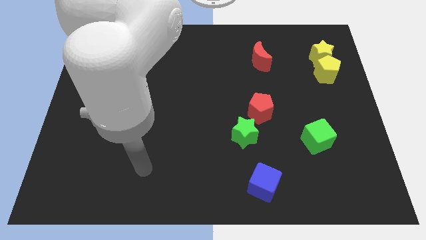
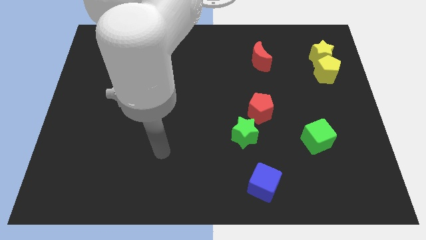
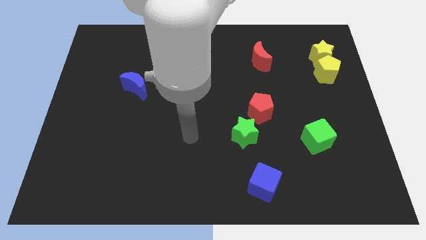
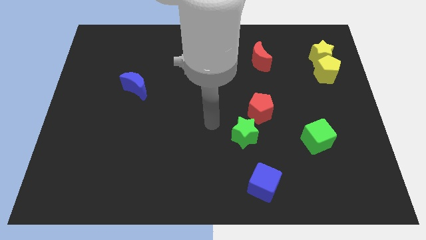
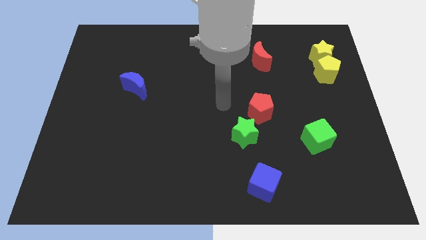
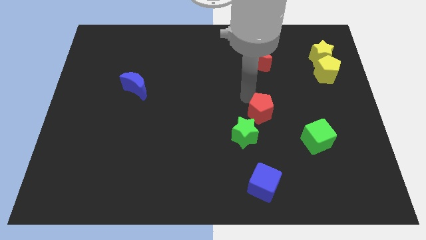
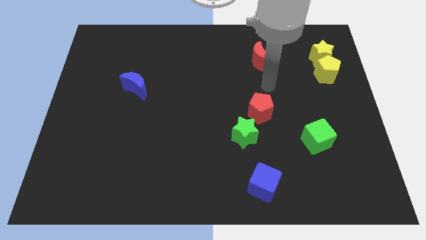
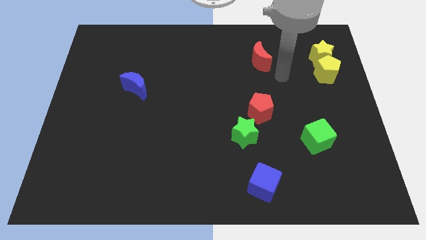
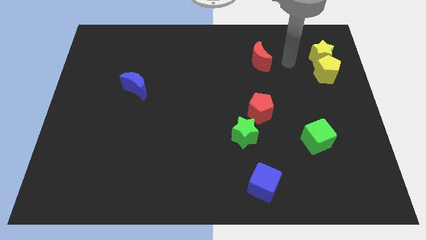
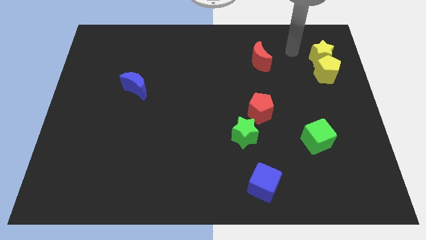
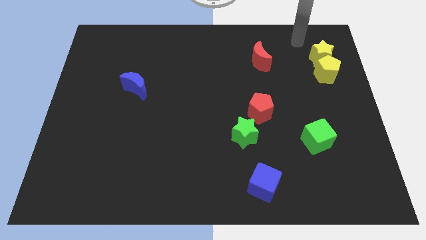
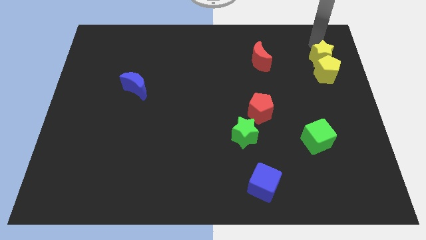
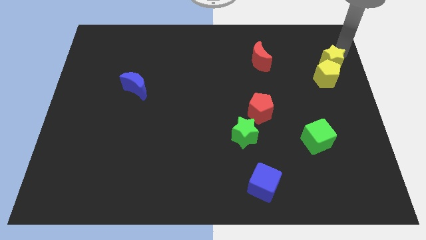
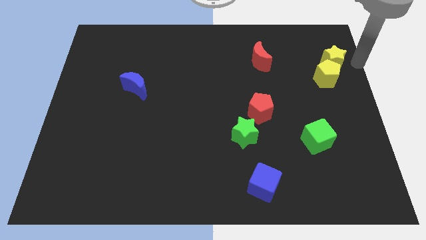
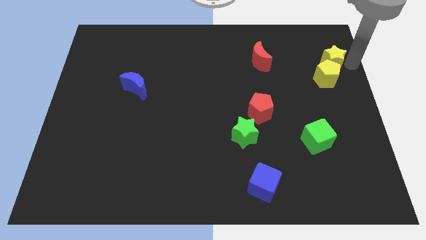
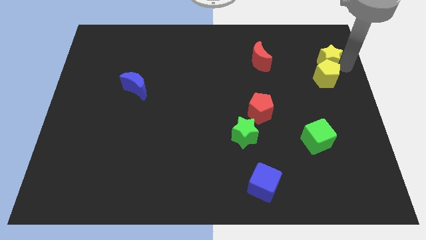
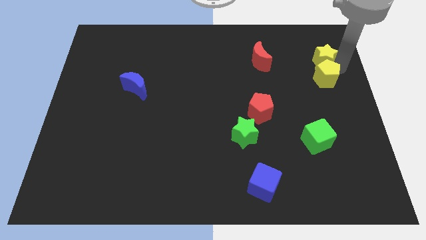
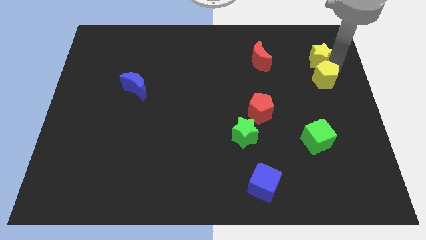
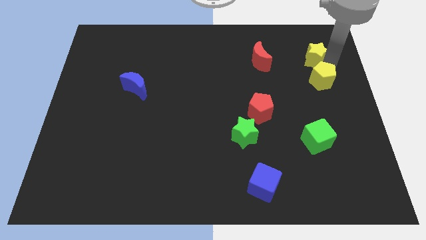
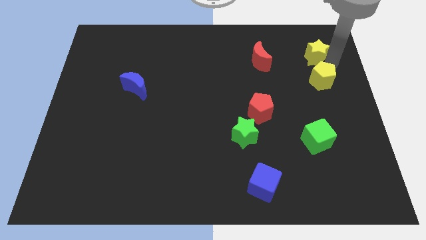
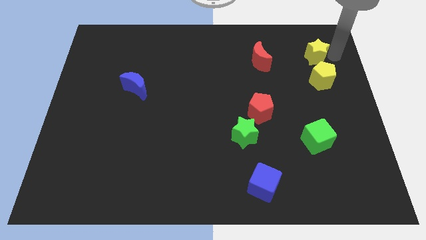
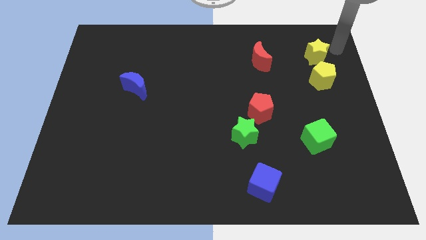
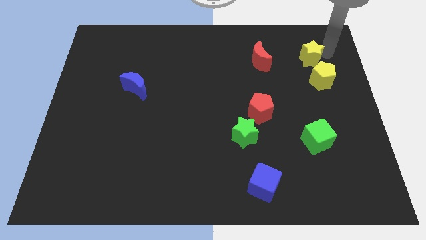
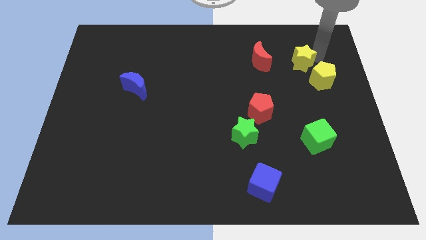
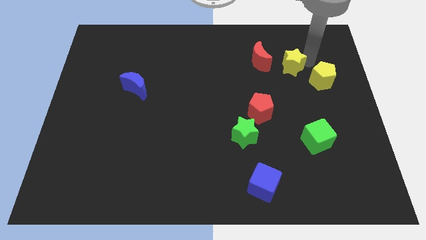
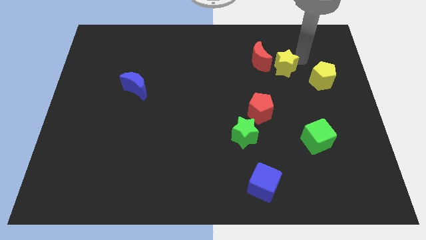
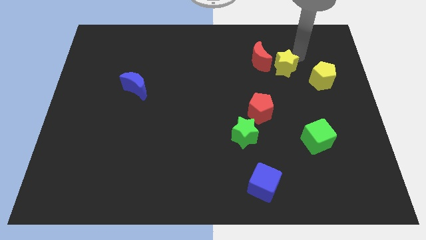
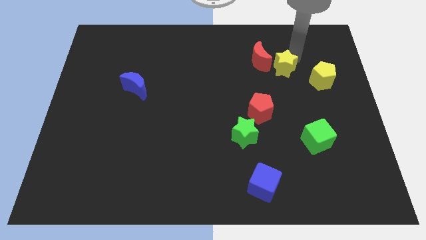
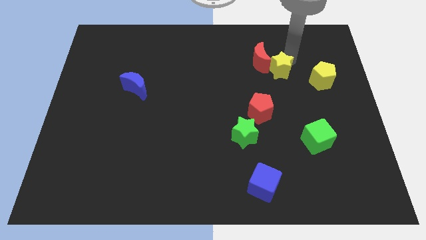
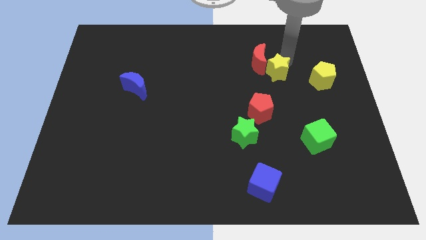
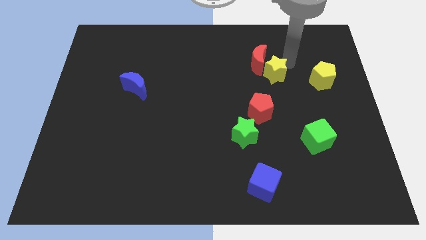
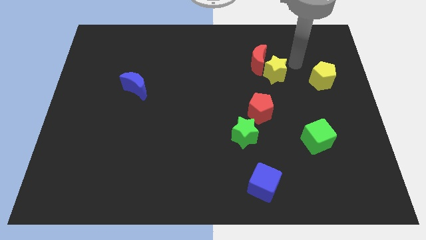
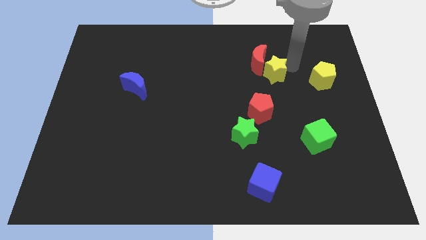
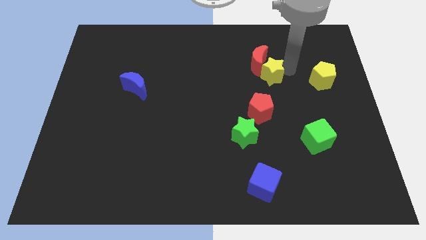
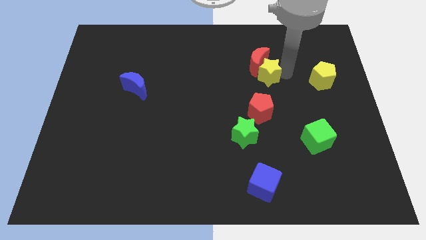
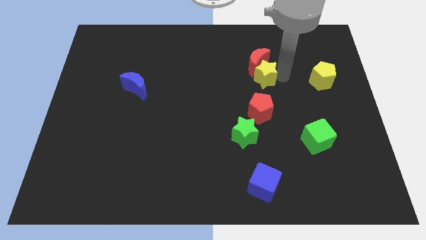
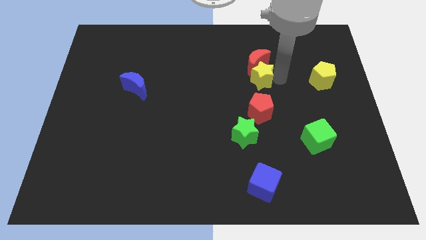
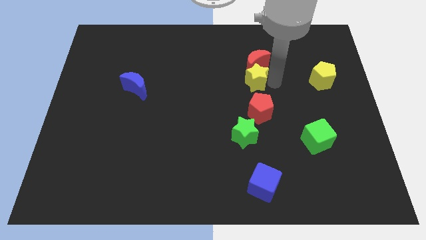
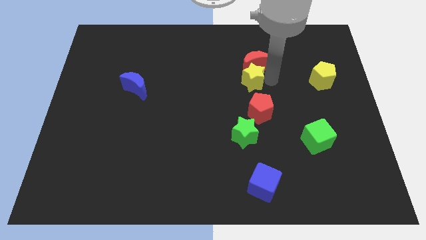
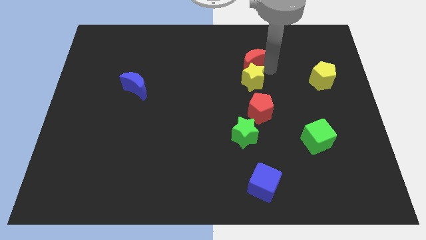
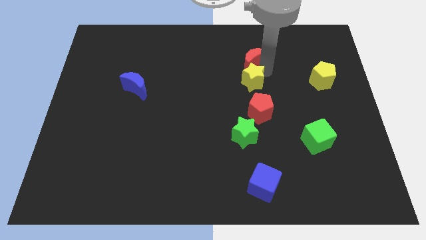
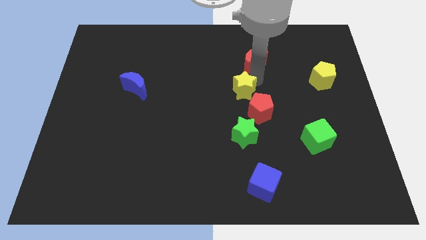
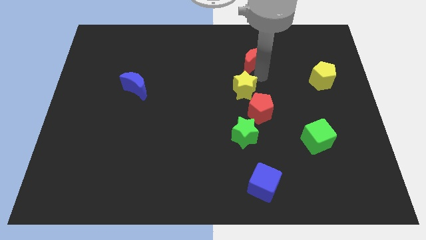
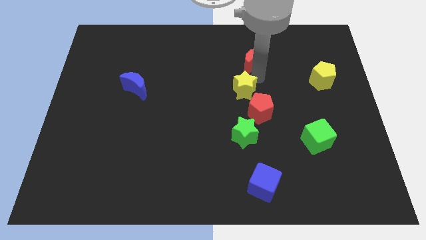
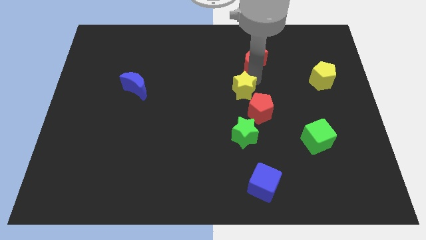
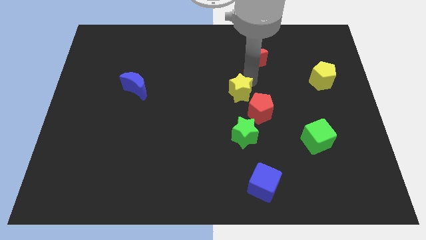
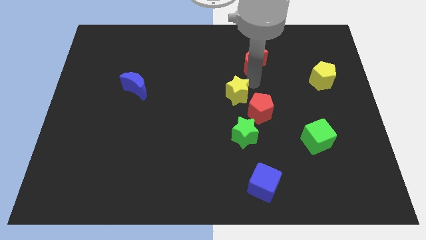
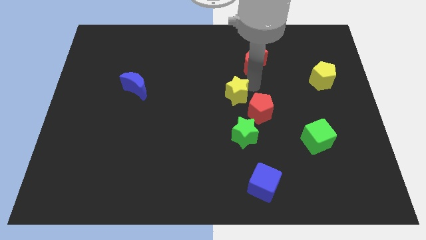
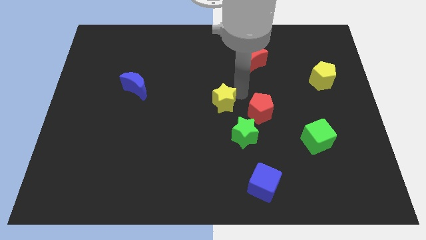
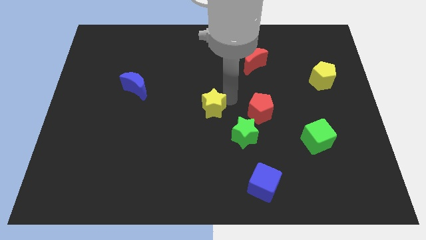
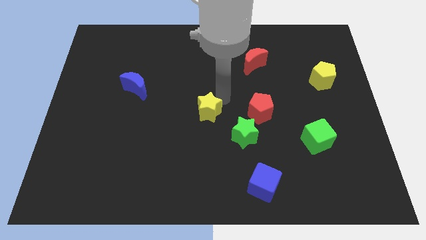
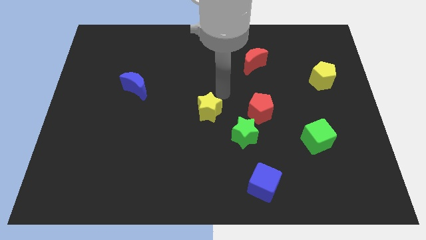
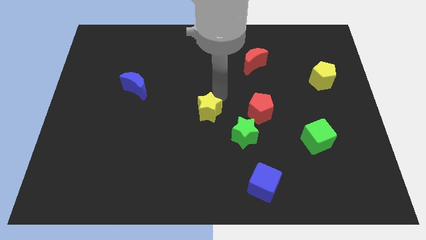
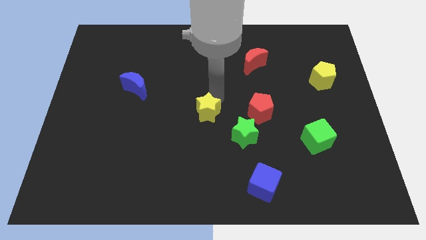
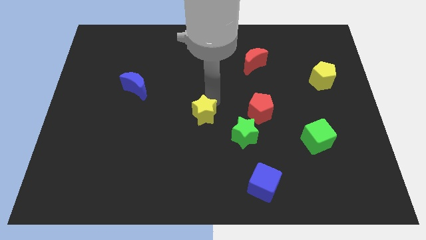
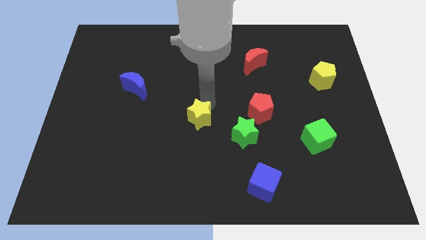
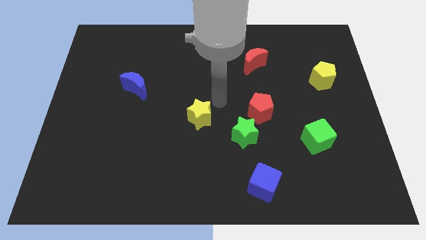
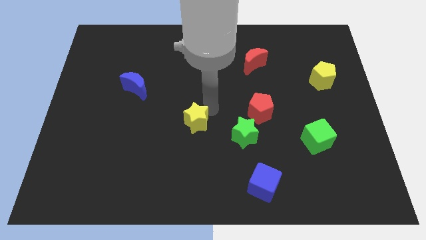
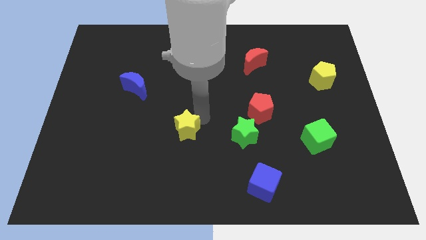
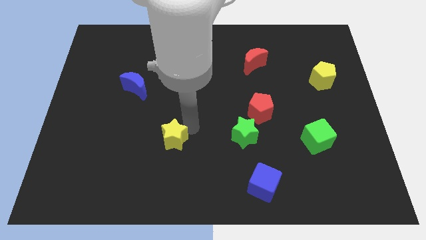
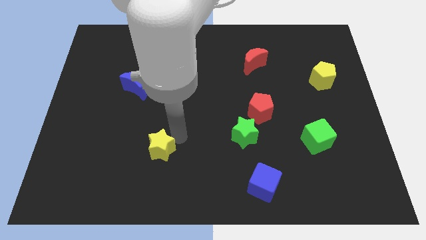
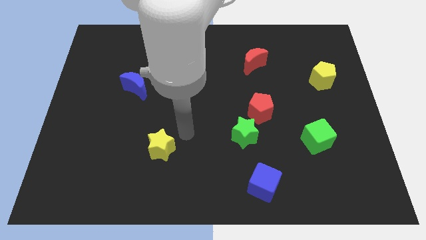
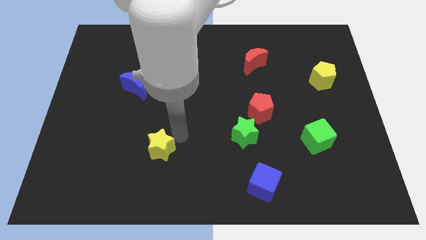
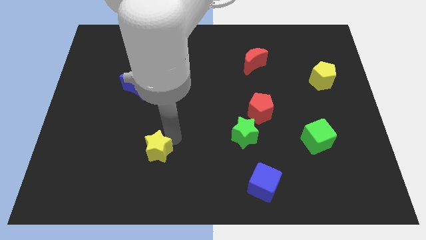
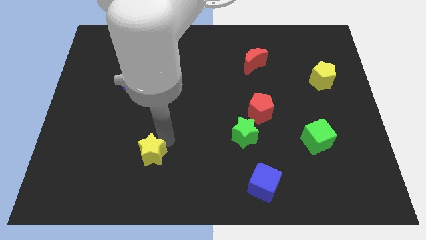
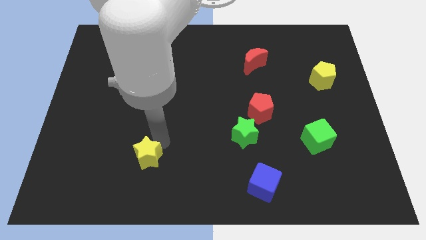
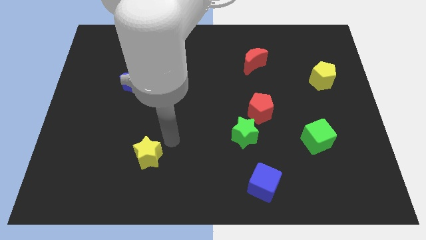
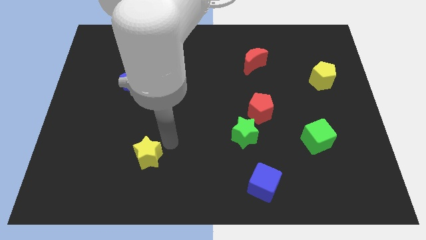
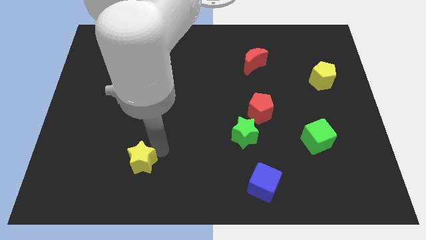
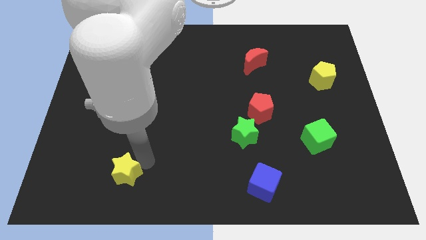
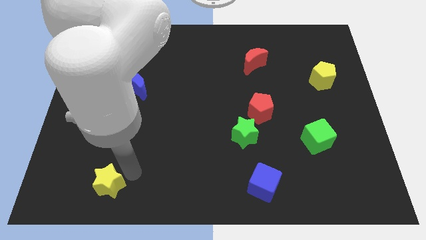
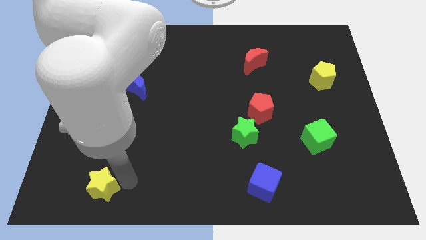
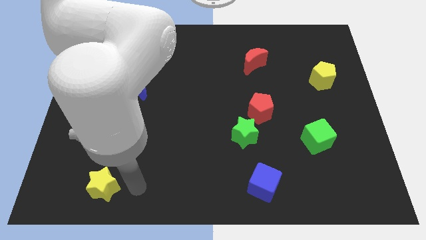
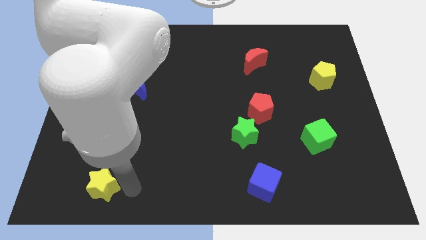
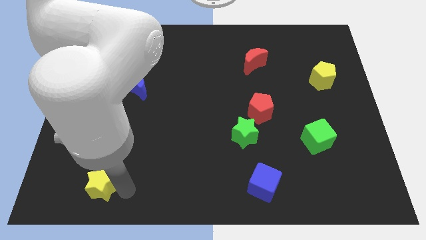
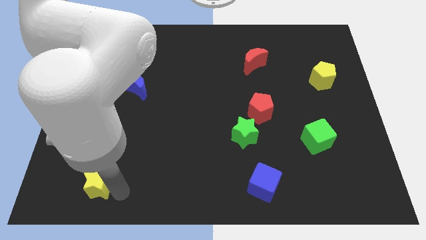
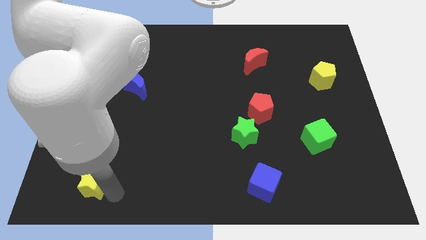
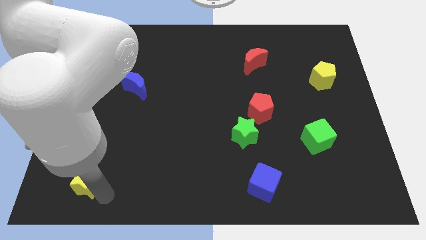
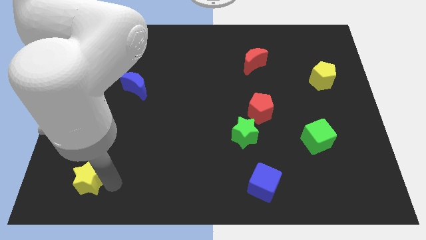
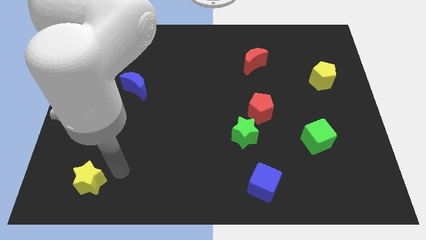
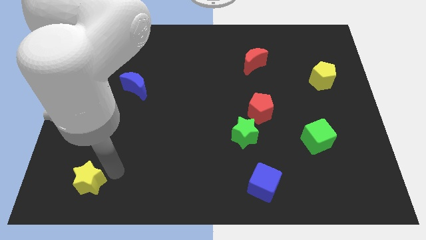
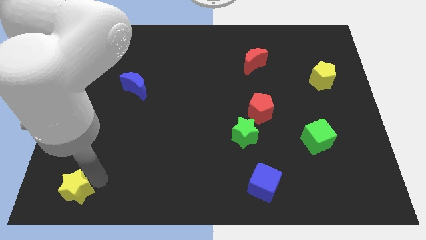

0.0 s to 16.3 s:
move the yellow star to the bottom left
